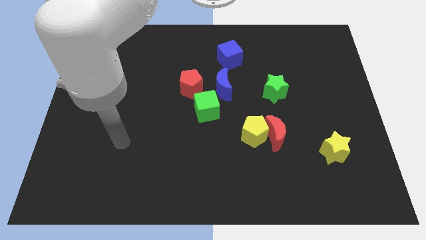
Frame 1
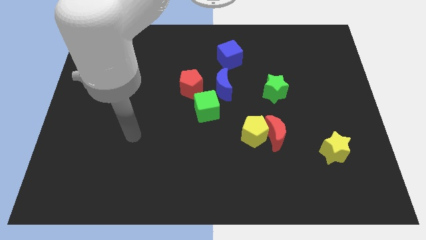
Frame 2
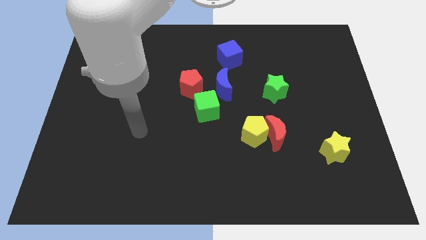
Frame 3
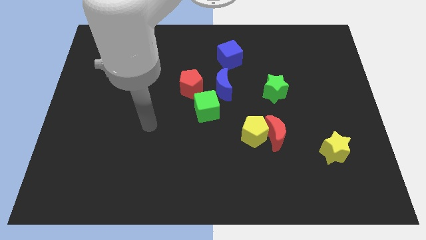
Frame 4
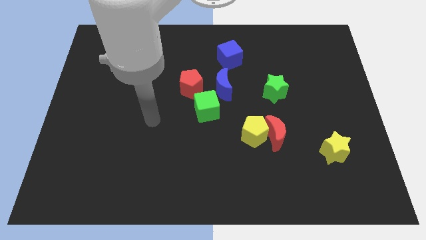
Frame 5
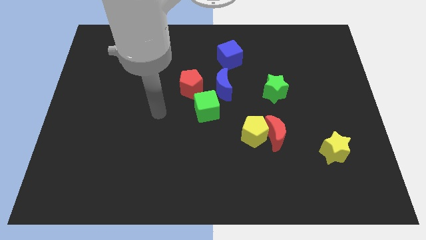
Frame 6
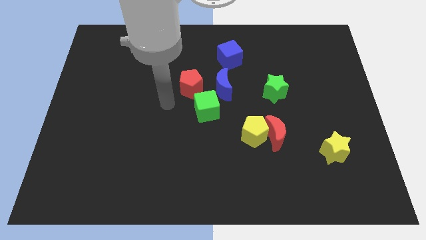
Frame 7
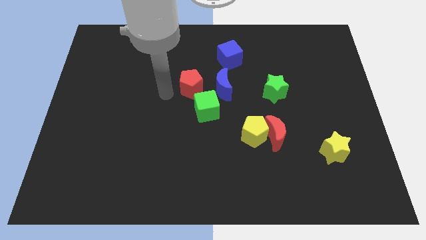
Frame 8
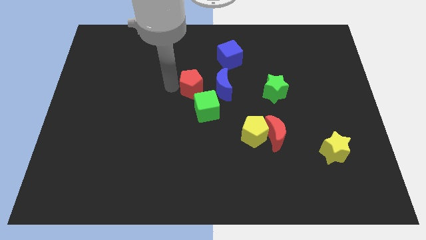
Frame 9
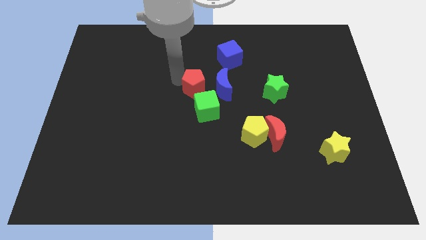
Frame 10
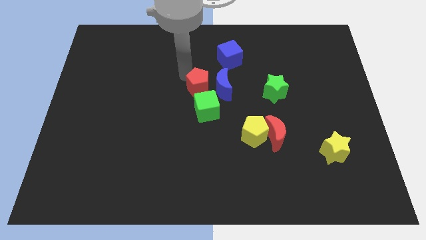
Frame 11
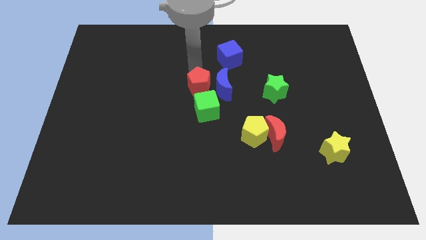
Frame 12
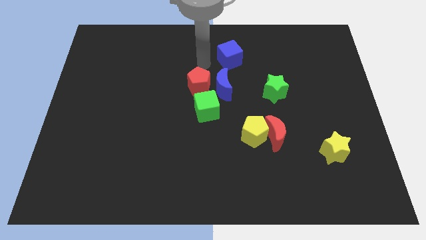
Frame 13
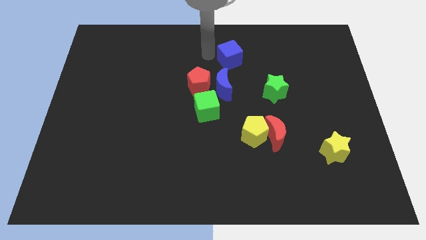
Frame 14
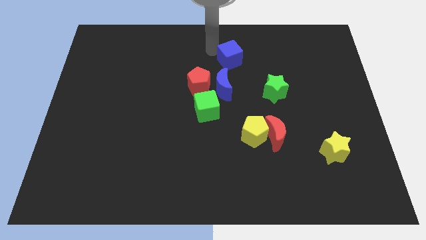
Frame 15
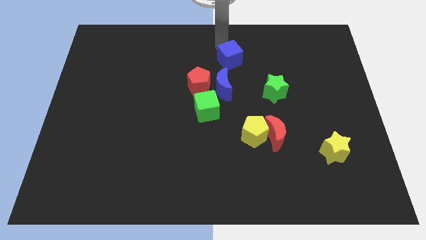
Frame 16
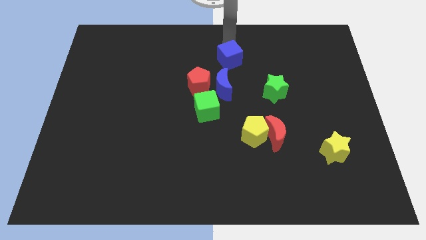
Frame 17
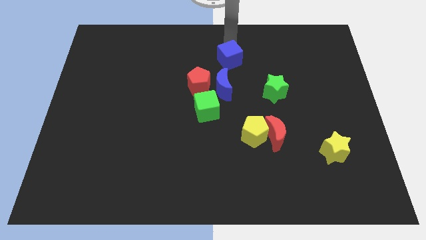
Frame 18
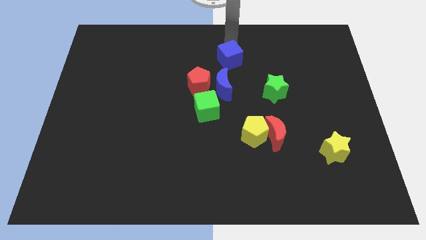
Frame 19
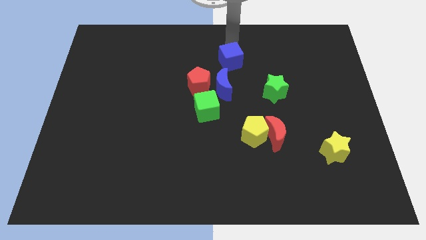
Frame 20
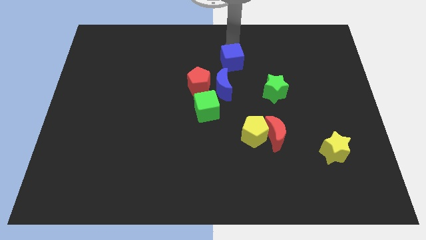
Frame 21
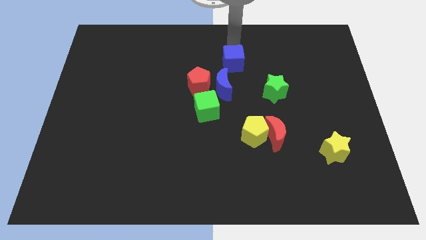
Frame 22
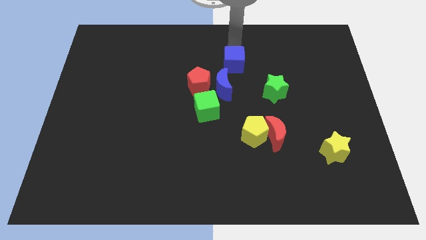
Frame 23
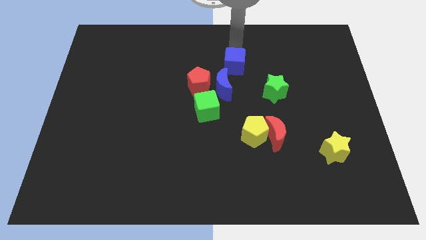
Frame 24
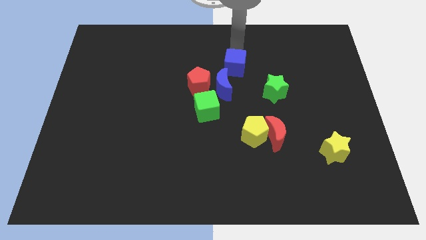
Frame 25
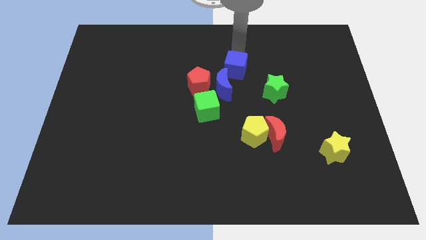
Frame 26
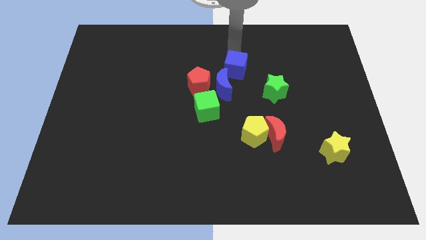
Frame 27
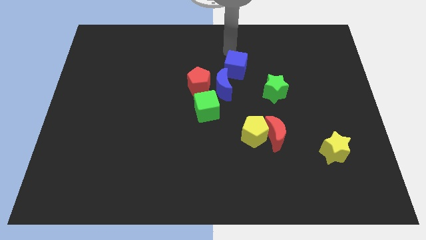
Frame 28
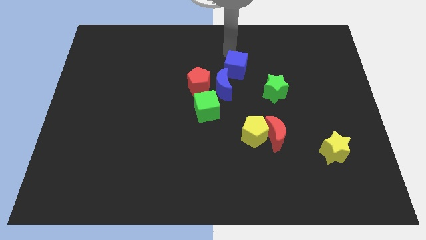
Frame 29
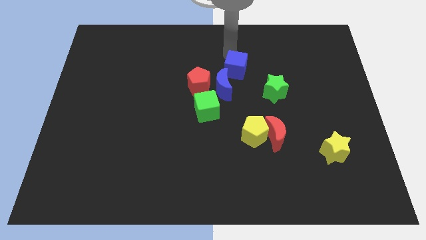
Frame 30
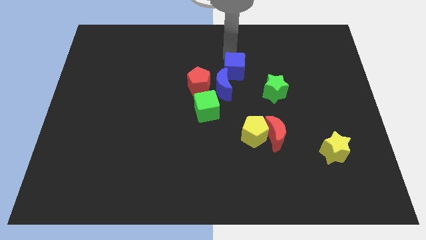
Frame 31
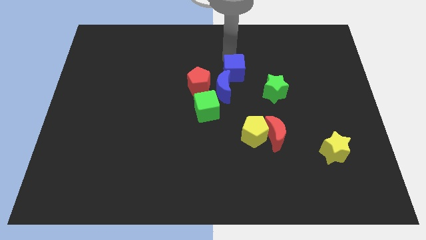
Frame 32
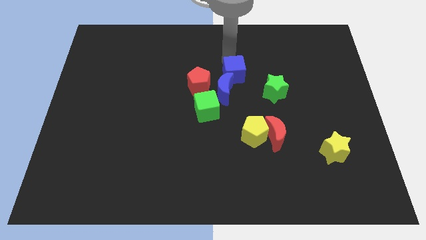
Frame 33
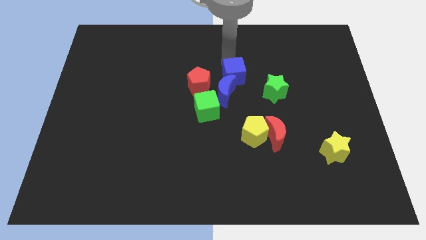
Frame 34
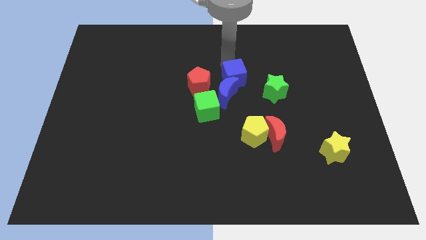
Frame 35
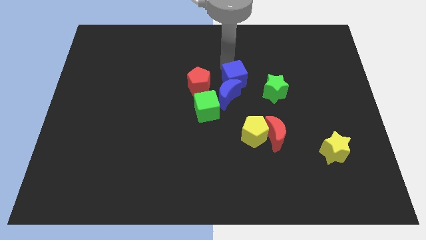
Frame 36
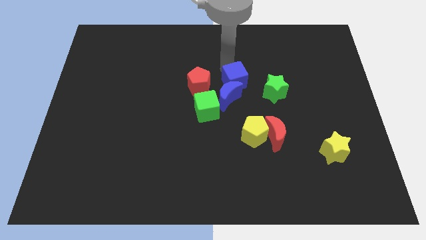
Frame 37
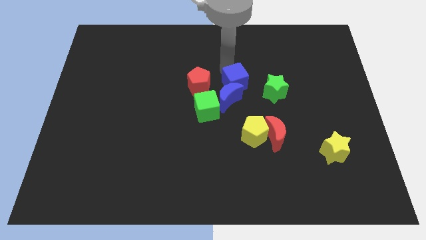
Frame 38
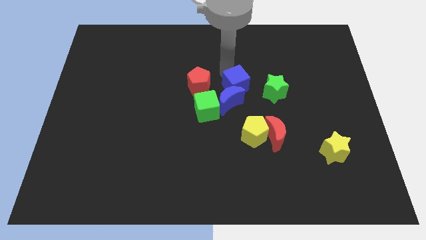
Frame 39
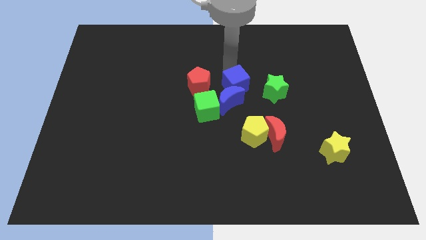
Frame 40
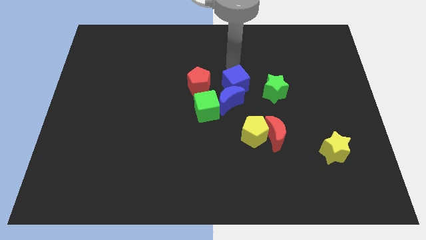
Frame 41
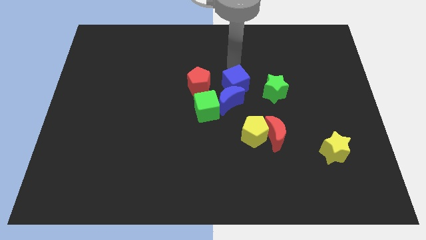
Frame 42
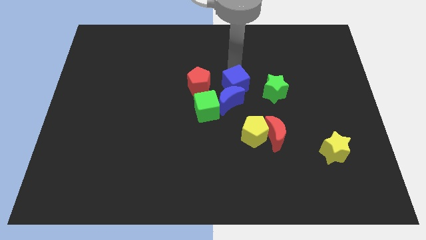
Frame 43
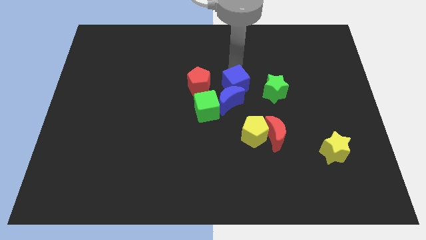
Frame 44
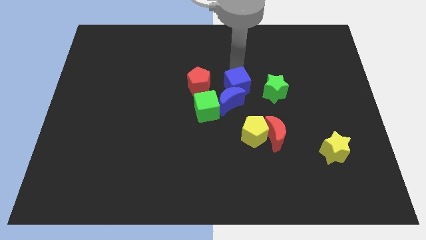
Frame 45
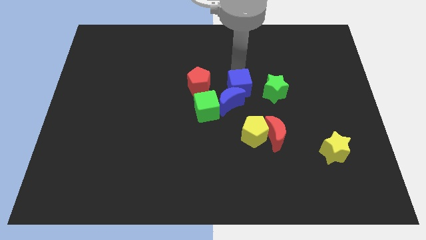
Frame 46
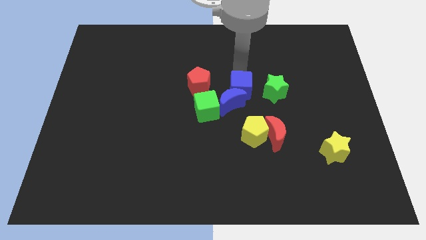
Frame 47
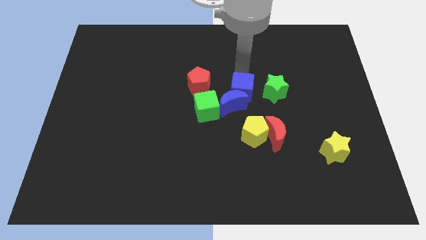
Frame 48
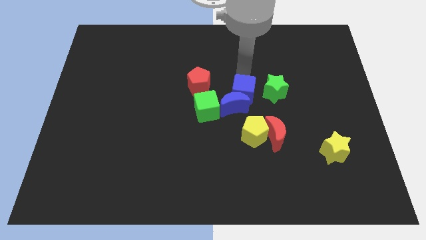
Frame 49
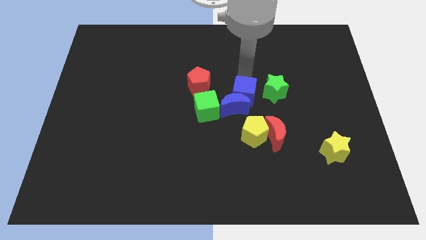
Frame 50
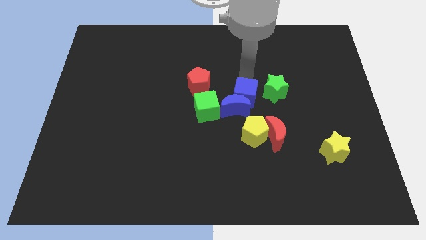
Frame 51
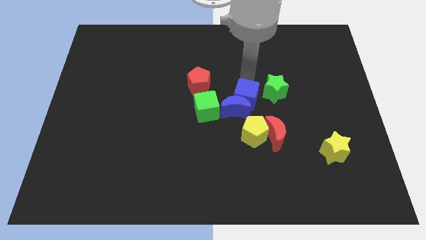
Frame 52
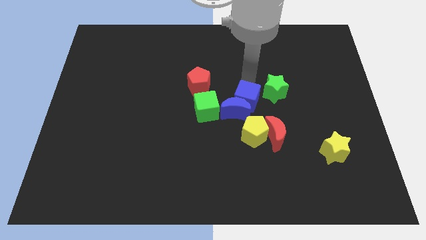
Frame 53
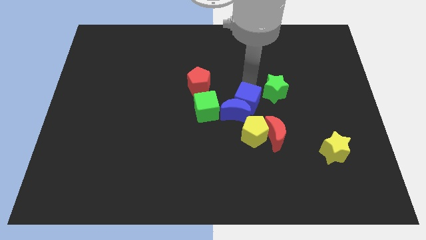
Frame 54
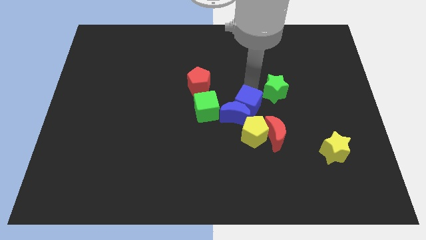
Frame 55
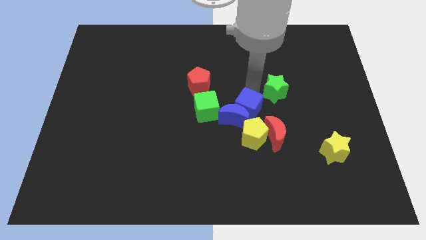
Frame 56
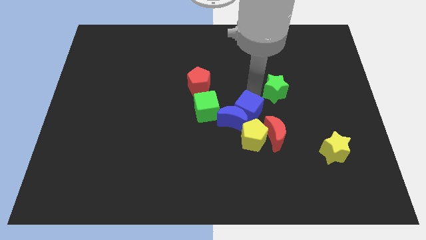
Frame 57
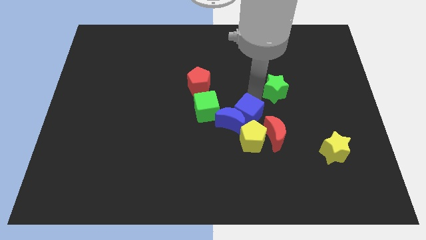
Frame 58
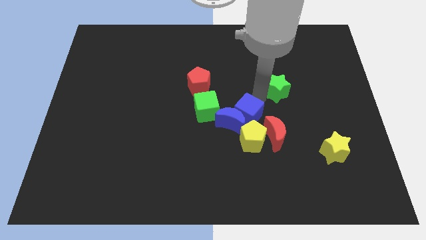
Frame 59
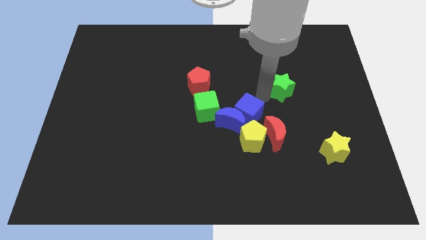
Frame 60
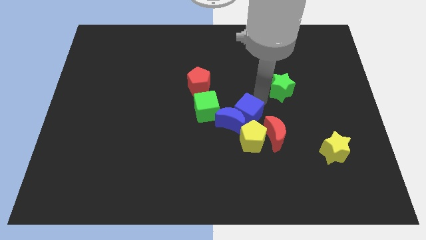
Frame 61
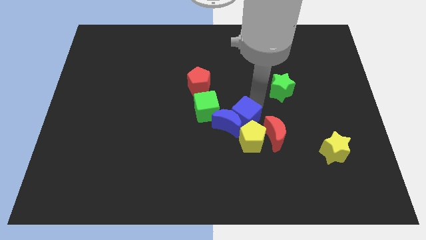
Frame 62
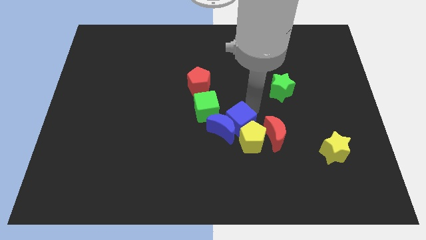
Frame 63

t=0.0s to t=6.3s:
push the blue cube to the left of the red moon

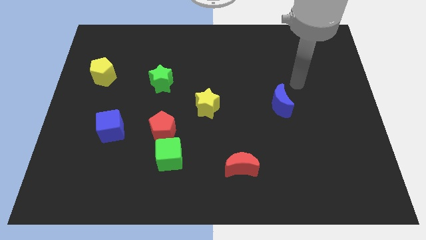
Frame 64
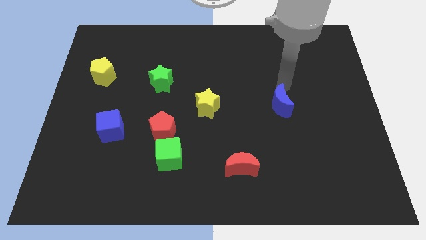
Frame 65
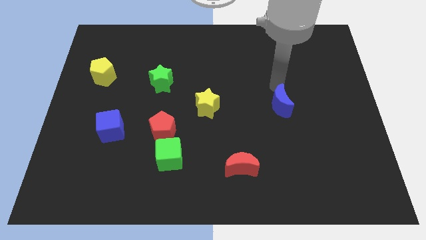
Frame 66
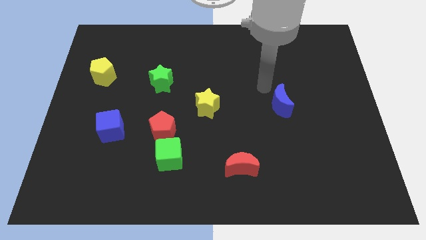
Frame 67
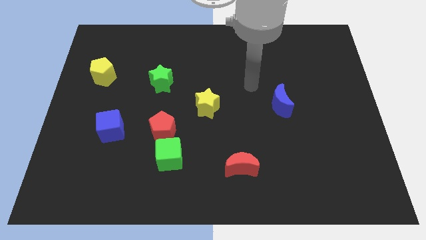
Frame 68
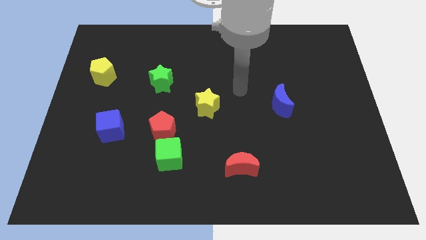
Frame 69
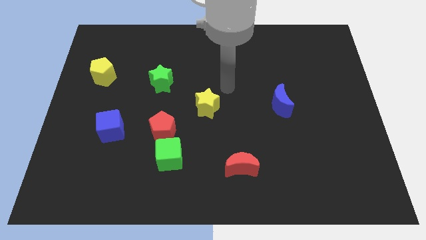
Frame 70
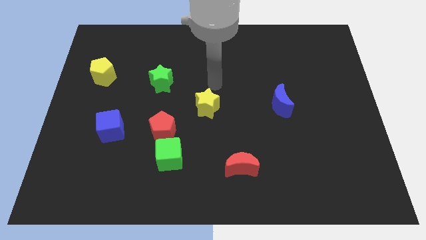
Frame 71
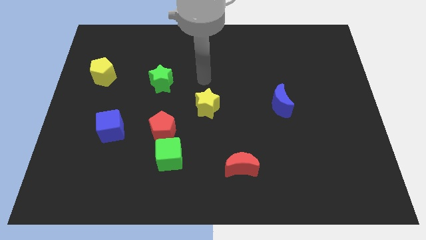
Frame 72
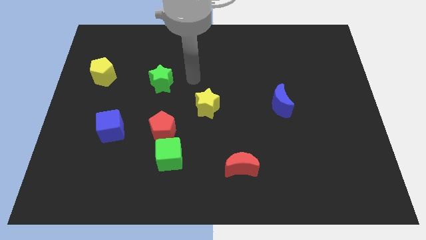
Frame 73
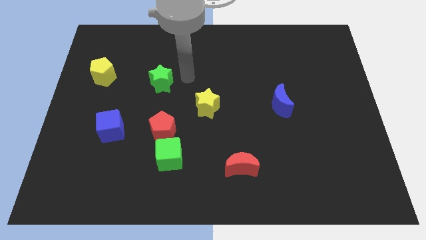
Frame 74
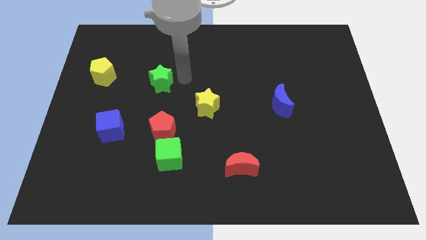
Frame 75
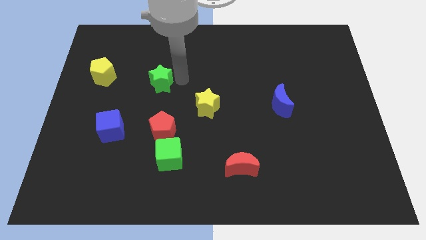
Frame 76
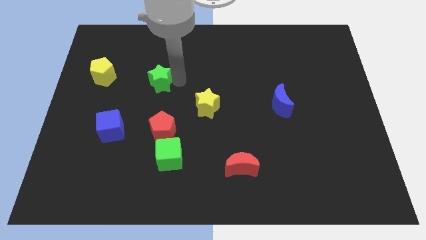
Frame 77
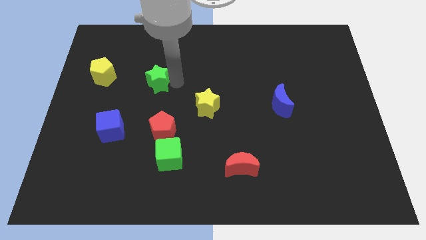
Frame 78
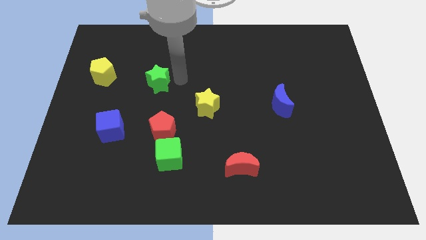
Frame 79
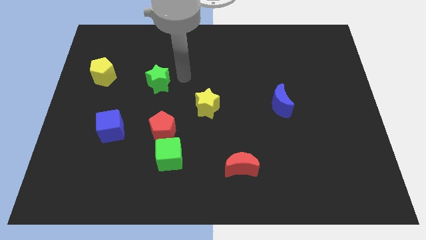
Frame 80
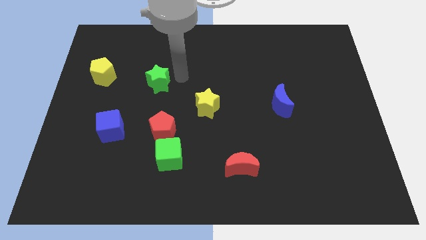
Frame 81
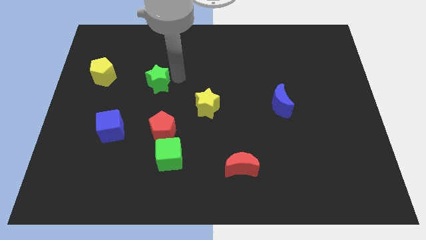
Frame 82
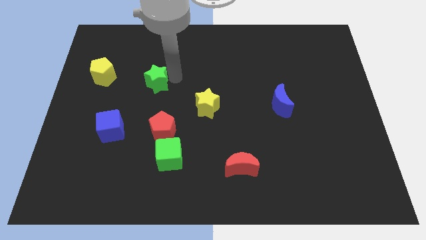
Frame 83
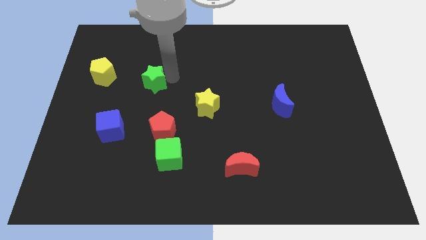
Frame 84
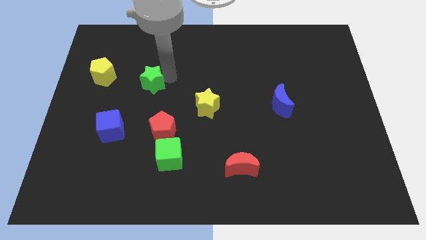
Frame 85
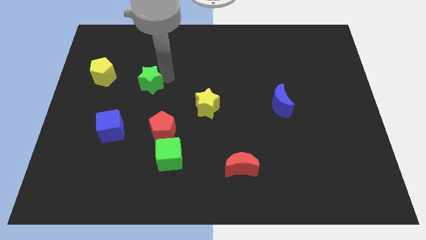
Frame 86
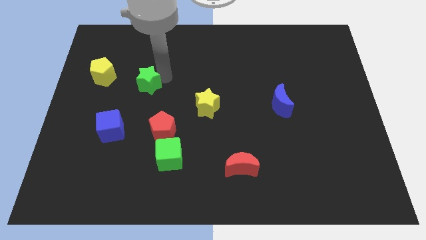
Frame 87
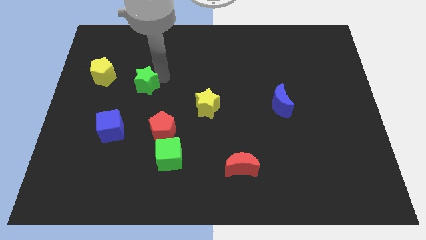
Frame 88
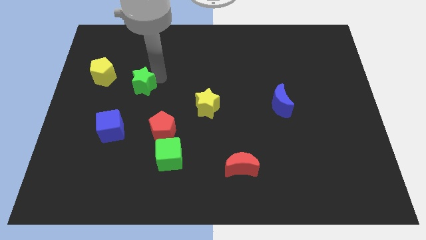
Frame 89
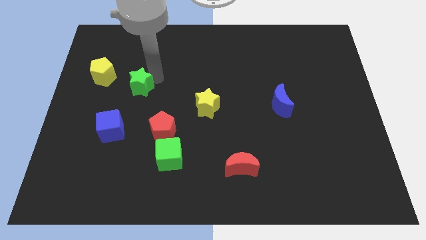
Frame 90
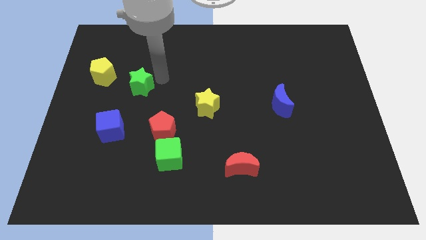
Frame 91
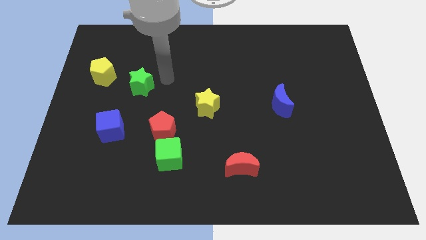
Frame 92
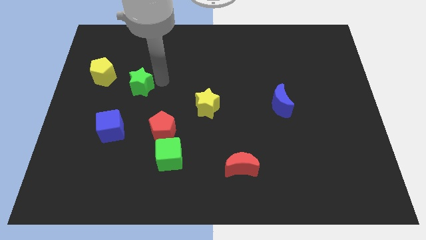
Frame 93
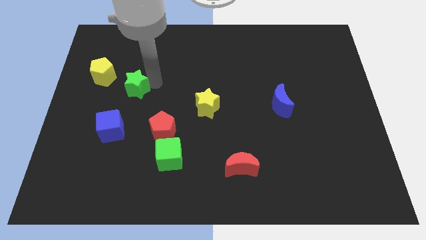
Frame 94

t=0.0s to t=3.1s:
push the green star to the top of the blue cube
